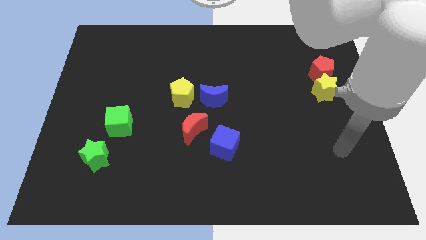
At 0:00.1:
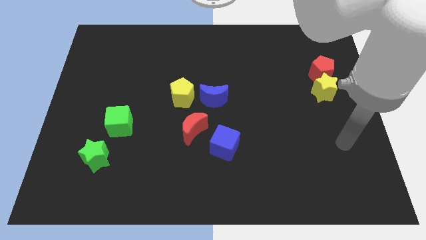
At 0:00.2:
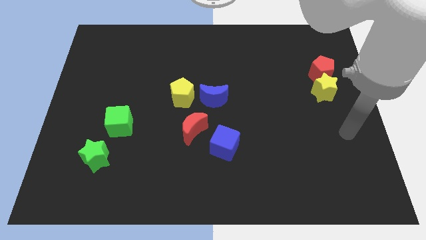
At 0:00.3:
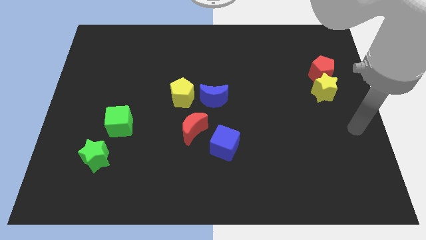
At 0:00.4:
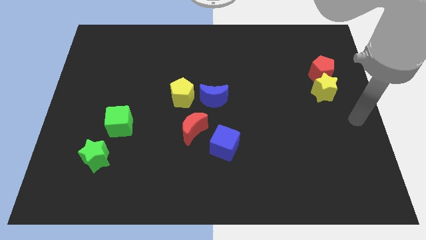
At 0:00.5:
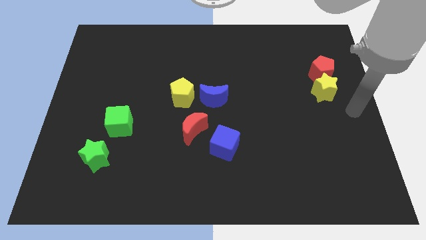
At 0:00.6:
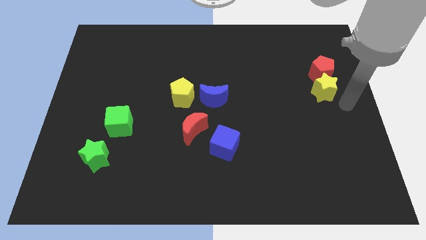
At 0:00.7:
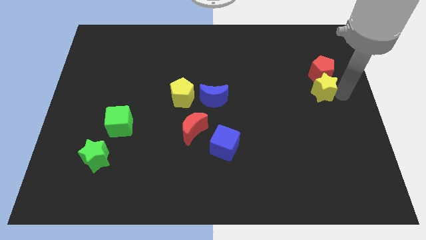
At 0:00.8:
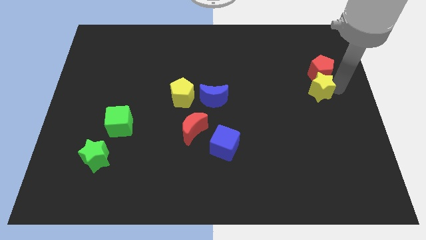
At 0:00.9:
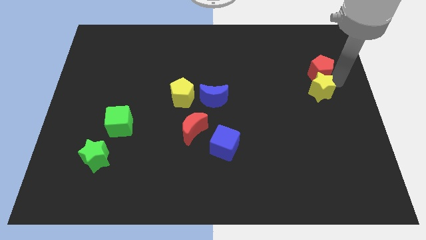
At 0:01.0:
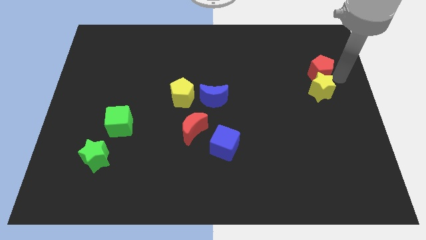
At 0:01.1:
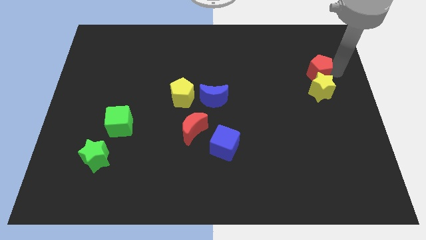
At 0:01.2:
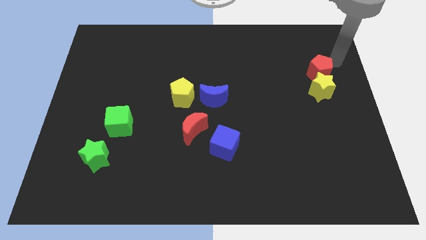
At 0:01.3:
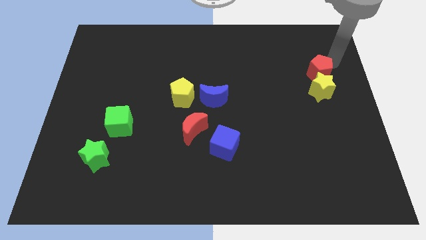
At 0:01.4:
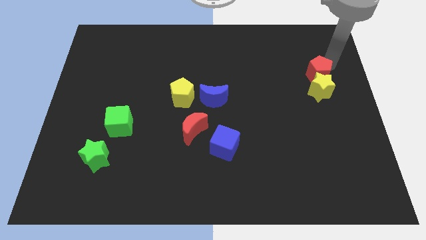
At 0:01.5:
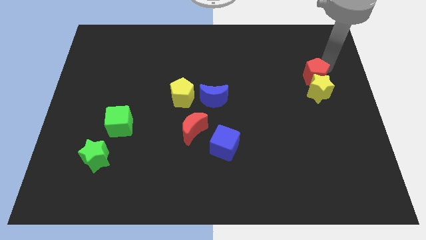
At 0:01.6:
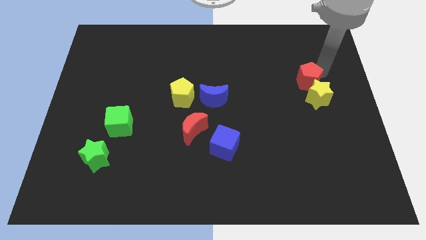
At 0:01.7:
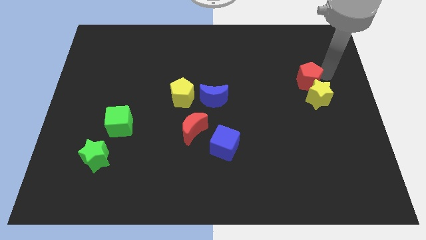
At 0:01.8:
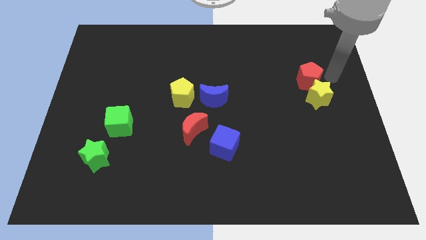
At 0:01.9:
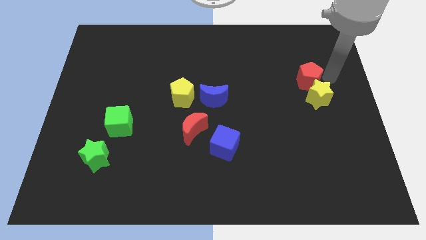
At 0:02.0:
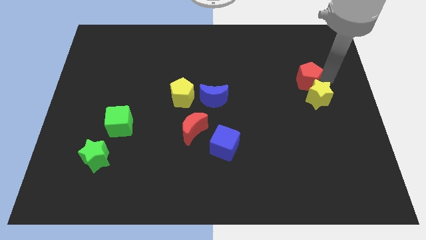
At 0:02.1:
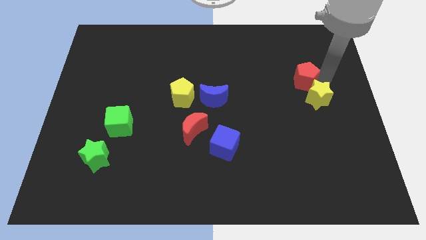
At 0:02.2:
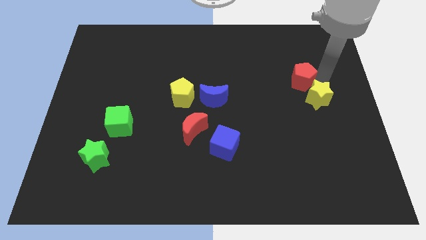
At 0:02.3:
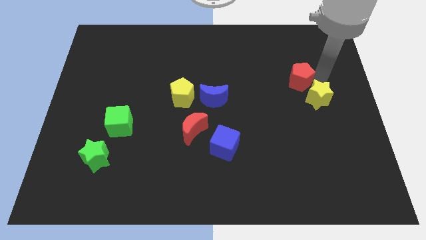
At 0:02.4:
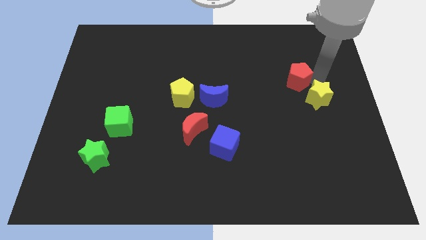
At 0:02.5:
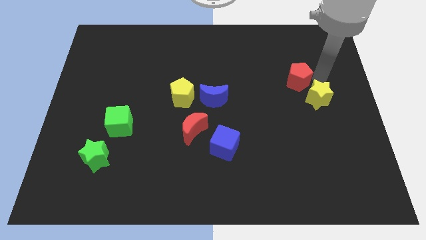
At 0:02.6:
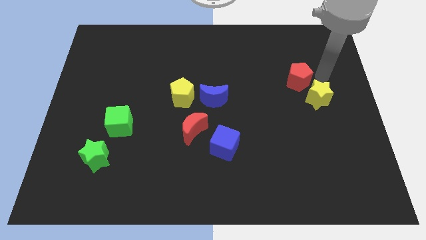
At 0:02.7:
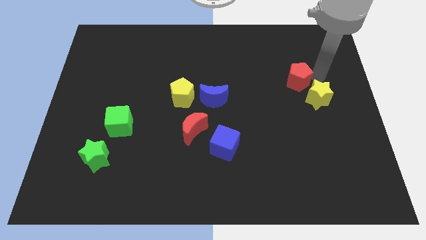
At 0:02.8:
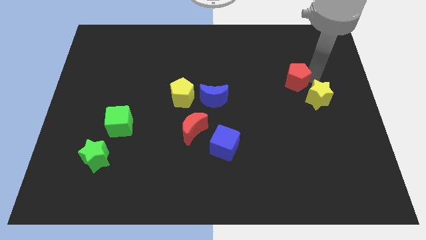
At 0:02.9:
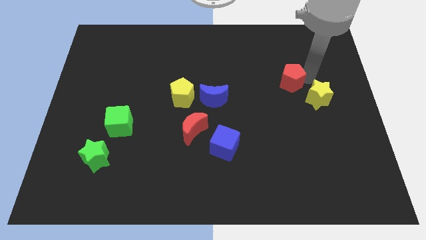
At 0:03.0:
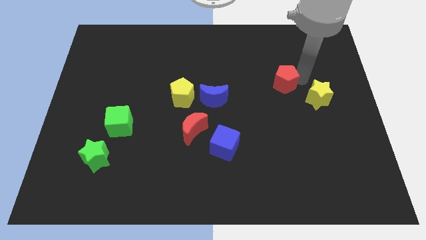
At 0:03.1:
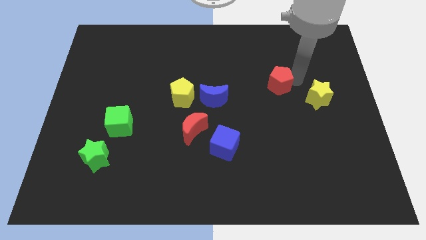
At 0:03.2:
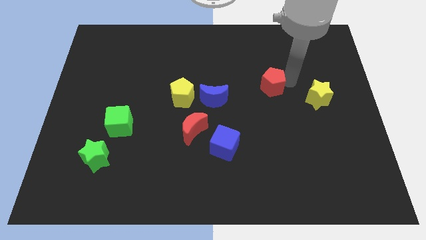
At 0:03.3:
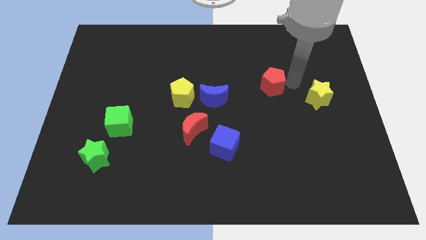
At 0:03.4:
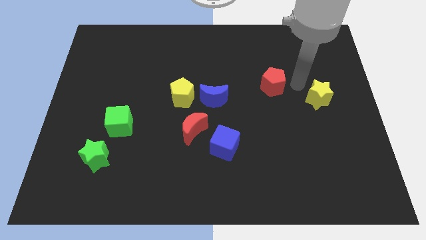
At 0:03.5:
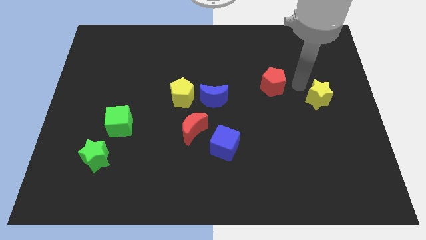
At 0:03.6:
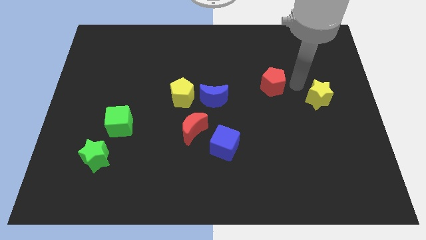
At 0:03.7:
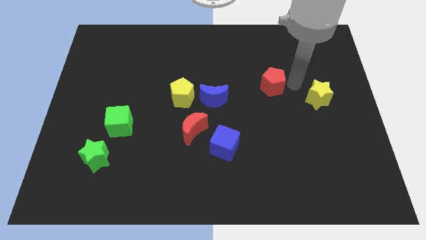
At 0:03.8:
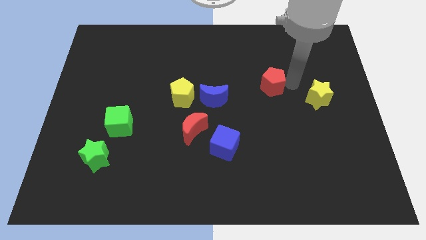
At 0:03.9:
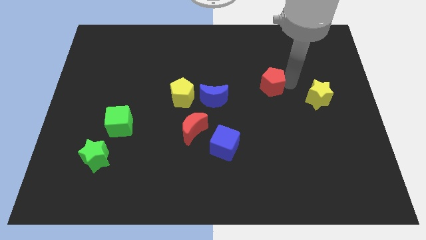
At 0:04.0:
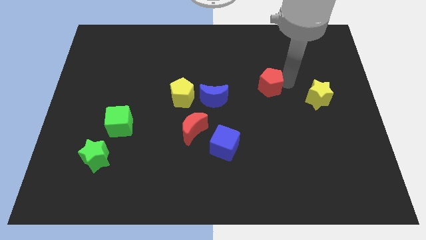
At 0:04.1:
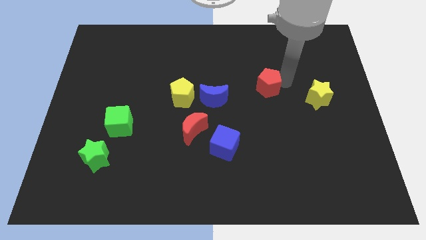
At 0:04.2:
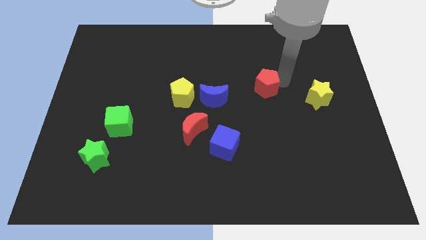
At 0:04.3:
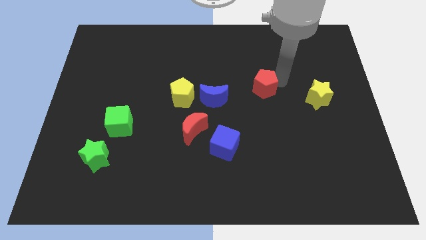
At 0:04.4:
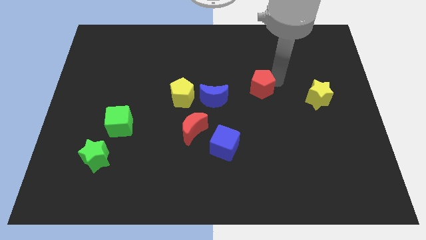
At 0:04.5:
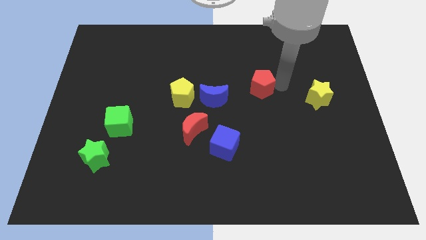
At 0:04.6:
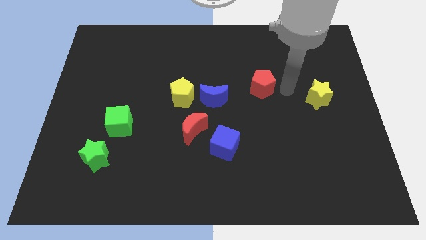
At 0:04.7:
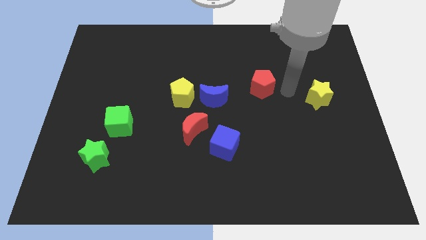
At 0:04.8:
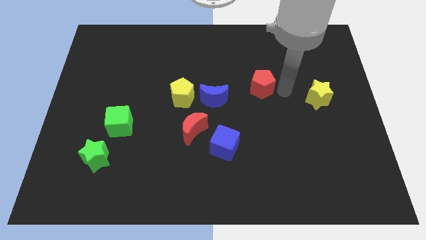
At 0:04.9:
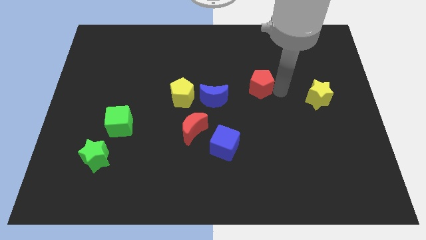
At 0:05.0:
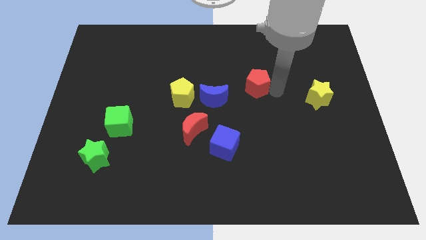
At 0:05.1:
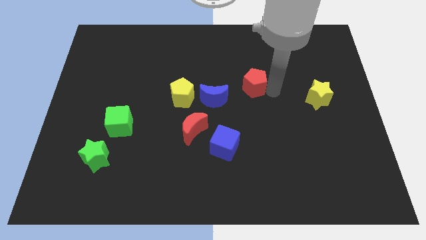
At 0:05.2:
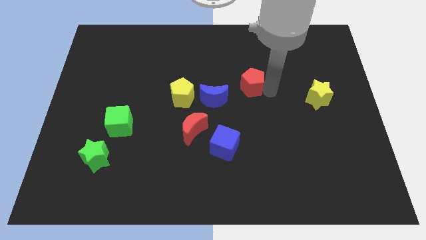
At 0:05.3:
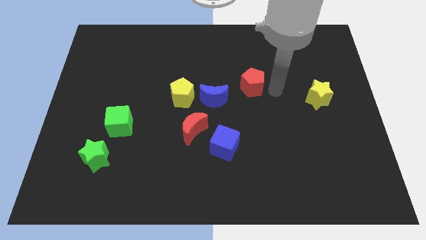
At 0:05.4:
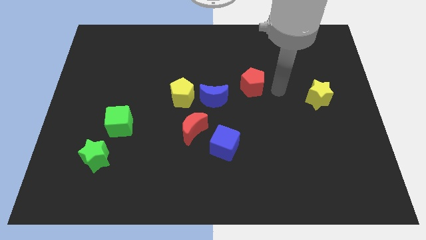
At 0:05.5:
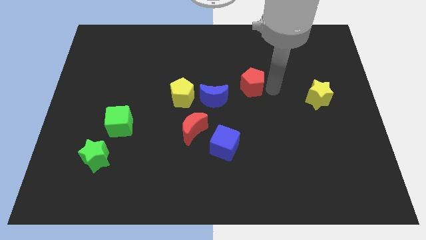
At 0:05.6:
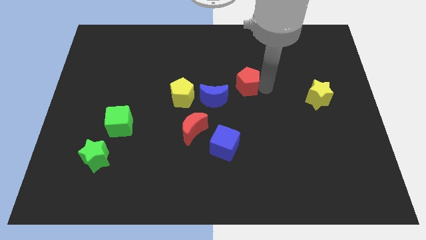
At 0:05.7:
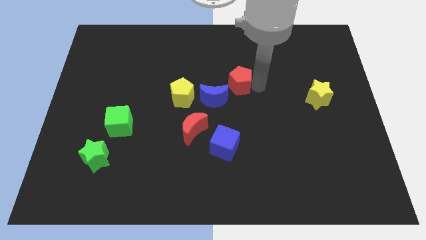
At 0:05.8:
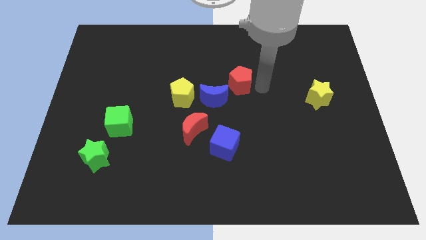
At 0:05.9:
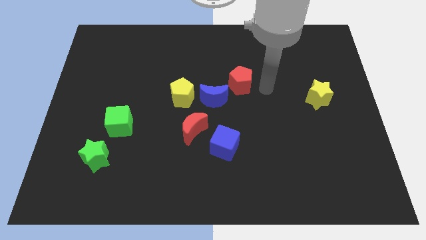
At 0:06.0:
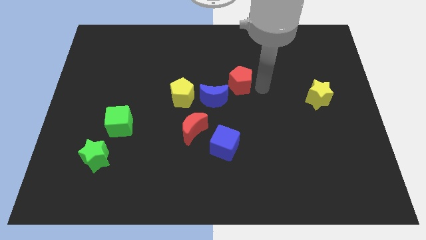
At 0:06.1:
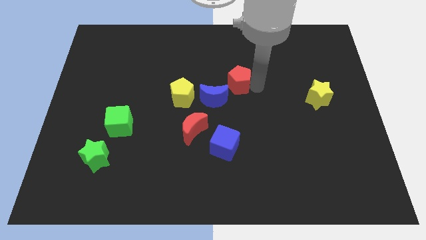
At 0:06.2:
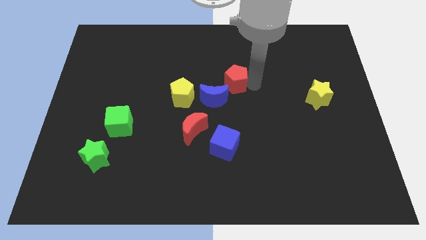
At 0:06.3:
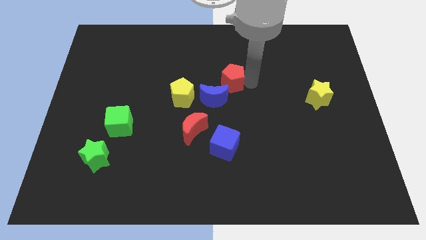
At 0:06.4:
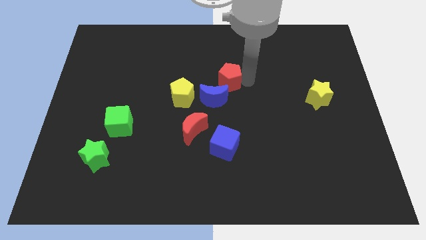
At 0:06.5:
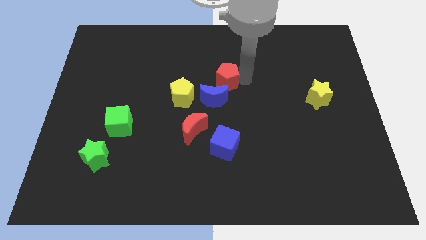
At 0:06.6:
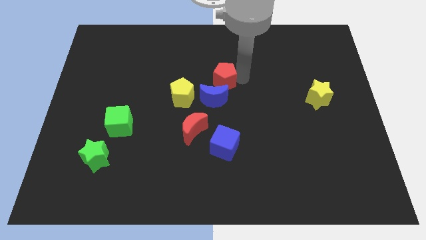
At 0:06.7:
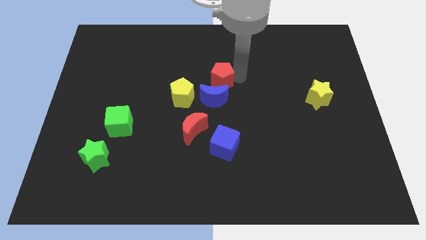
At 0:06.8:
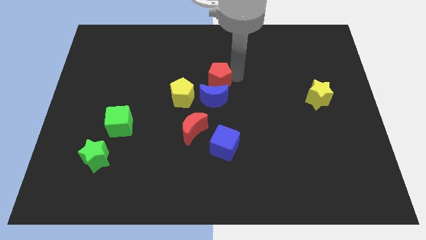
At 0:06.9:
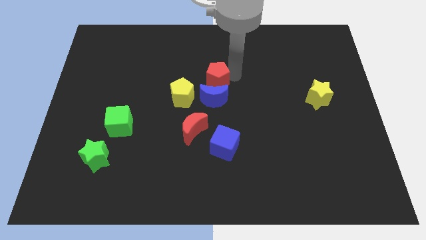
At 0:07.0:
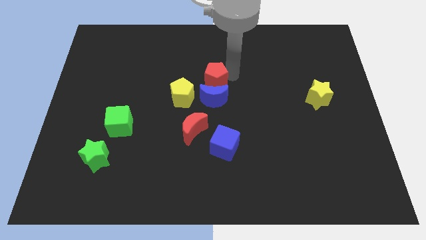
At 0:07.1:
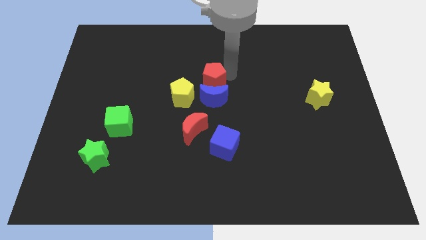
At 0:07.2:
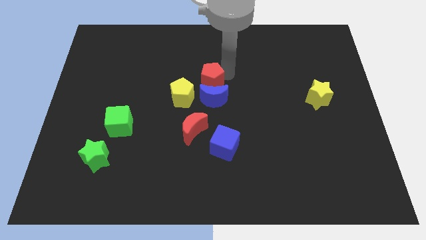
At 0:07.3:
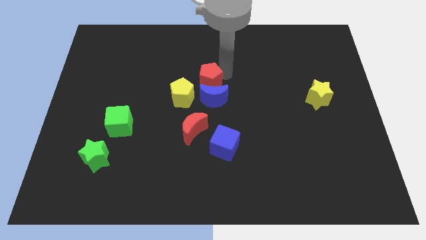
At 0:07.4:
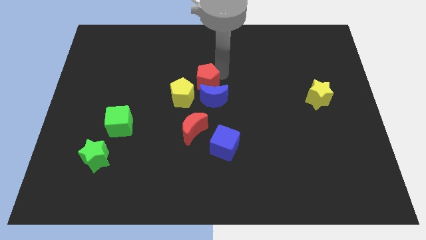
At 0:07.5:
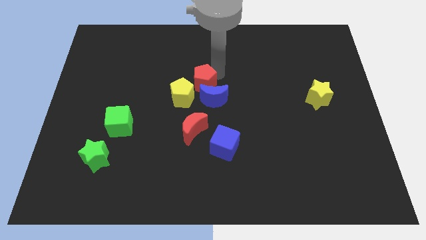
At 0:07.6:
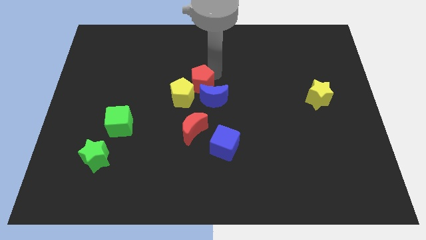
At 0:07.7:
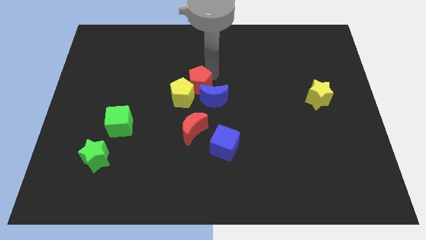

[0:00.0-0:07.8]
put the red pentagon close to the yellow pentagon
